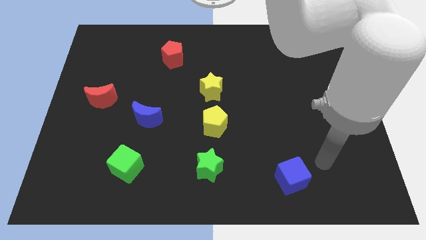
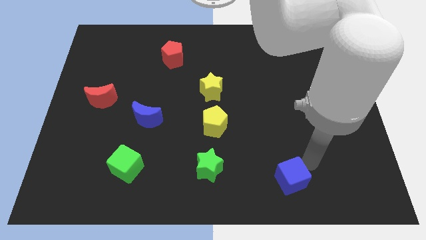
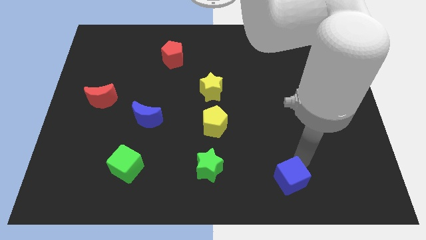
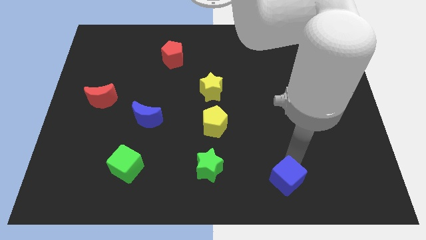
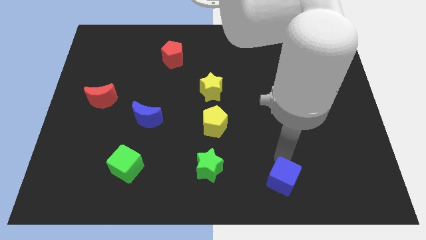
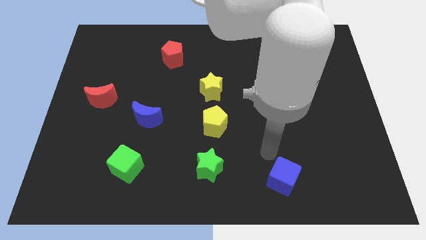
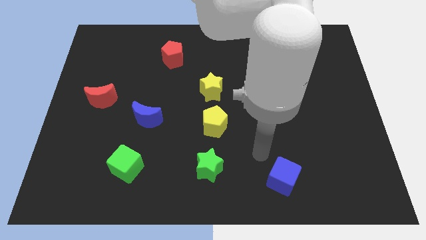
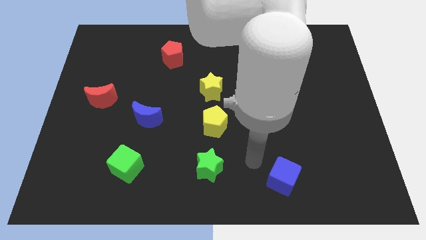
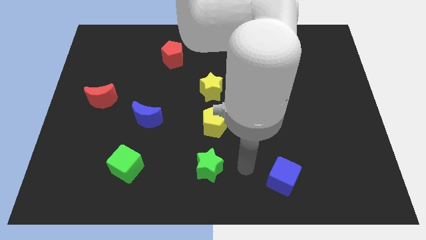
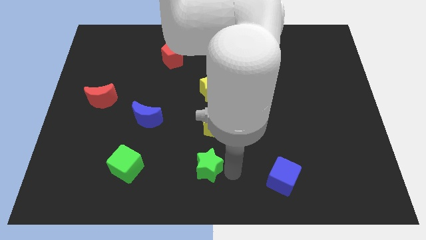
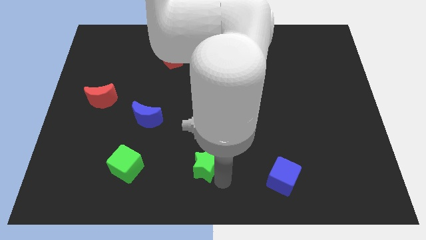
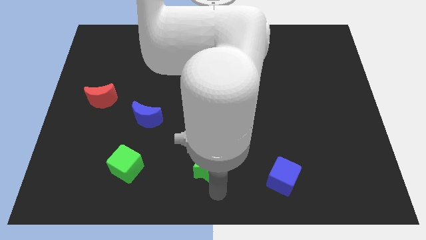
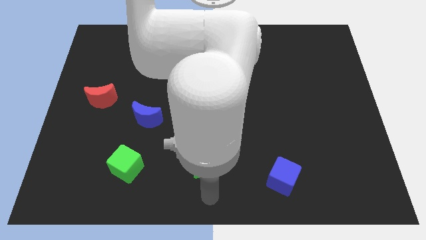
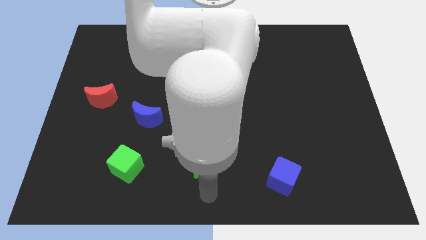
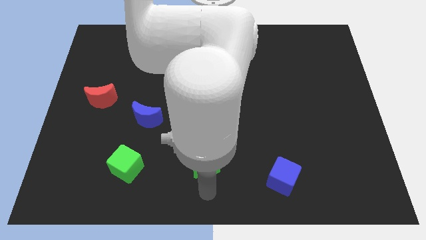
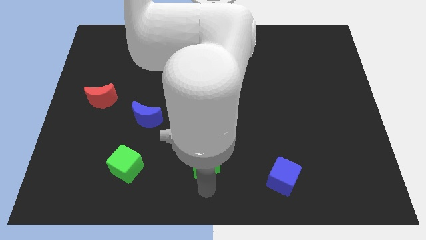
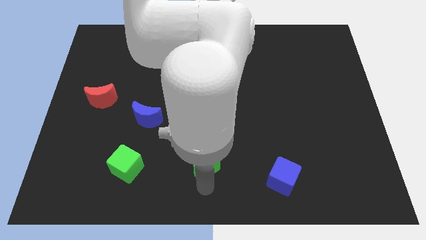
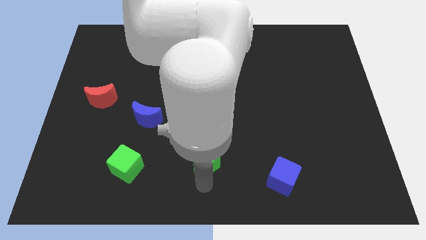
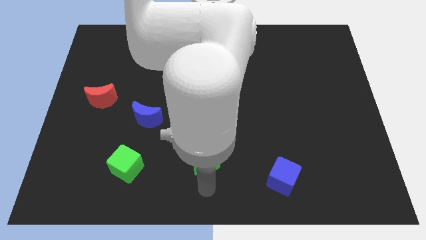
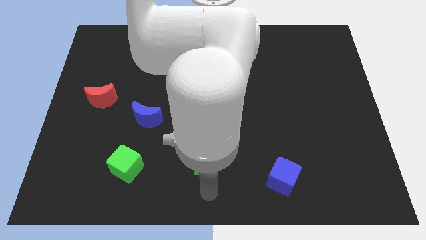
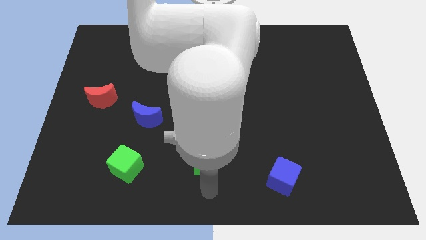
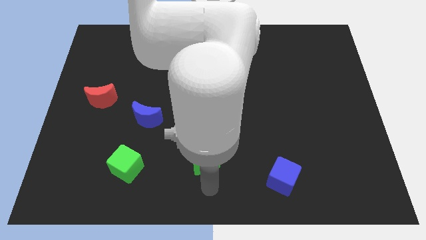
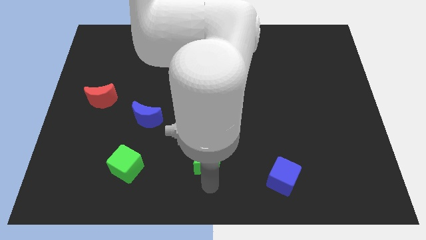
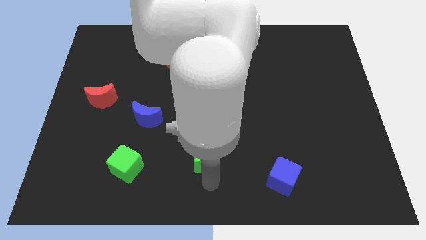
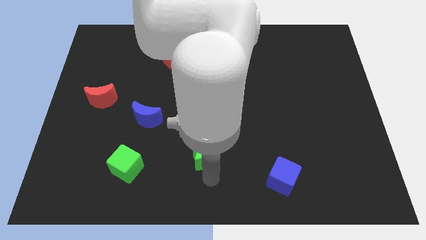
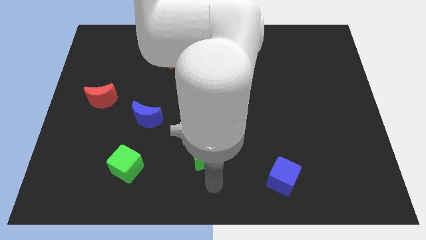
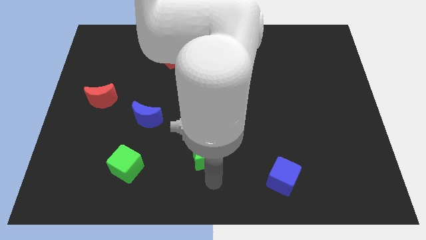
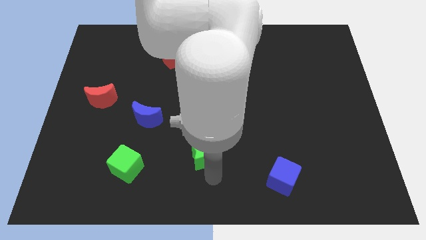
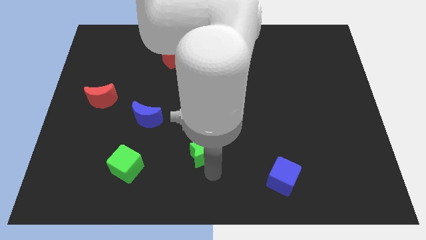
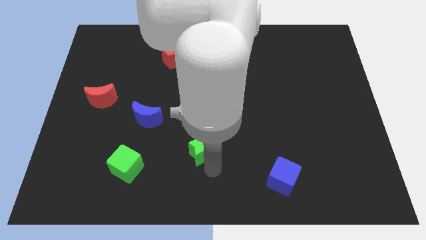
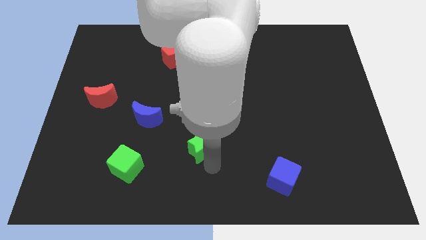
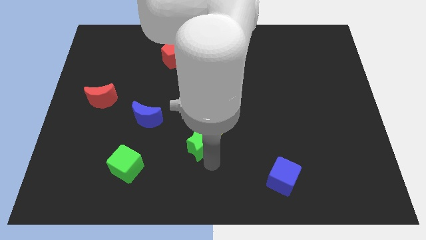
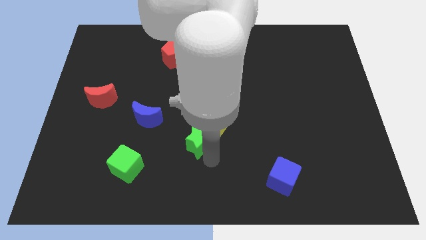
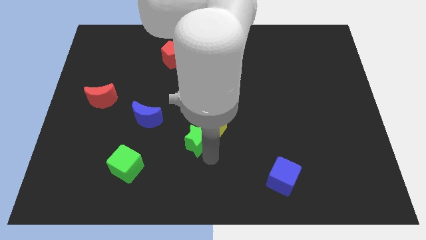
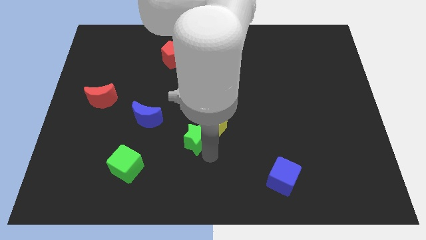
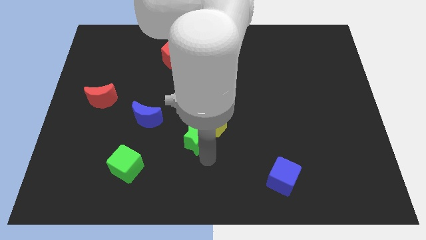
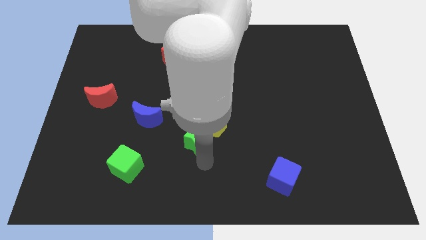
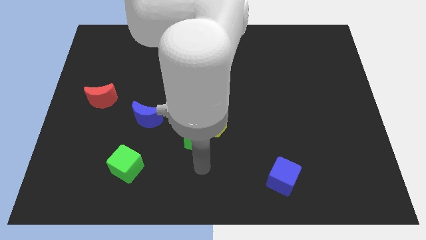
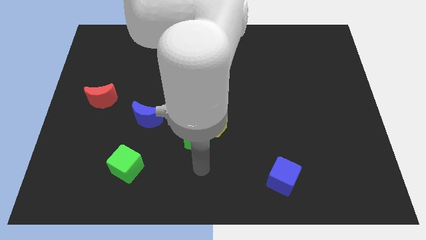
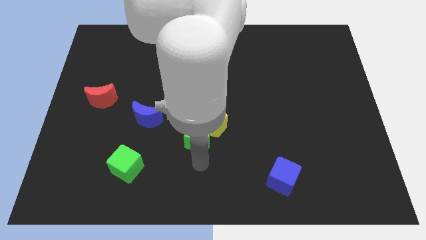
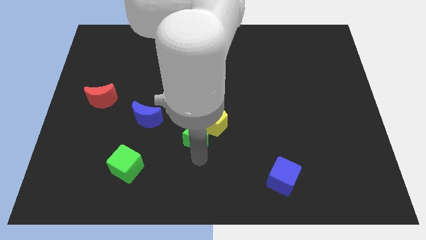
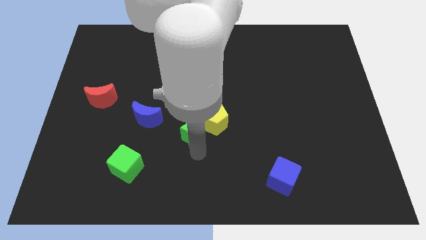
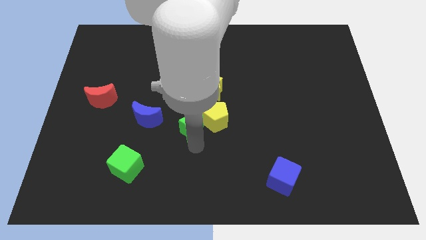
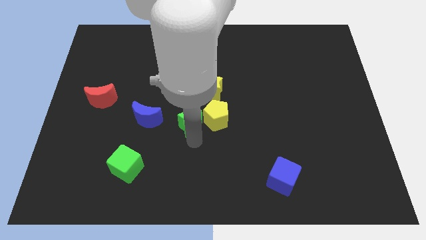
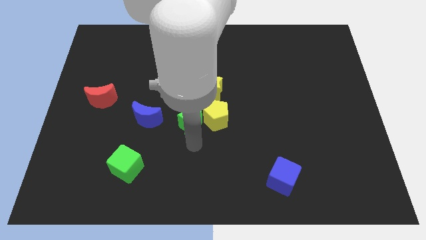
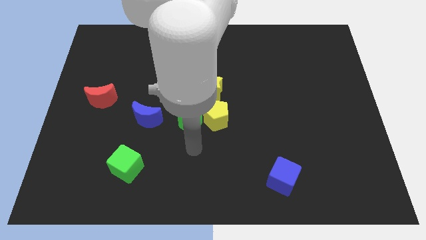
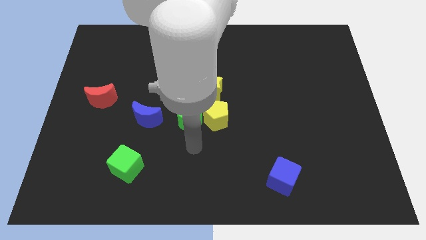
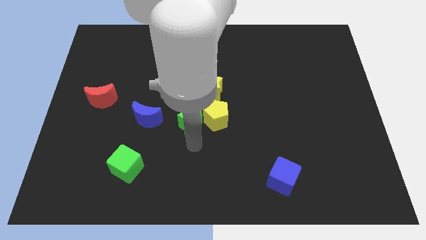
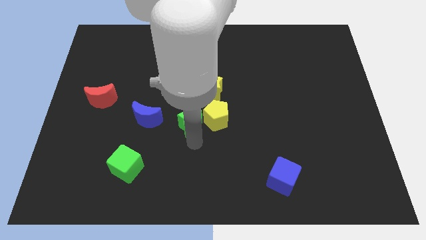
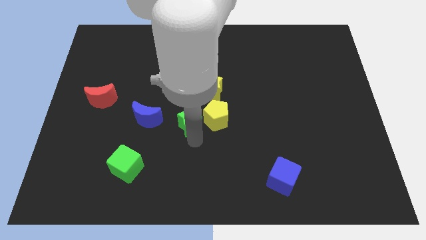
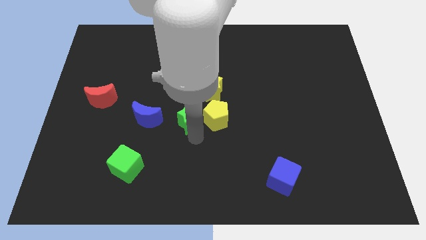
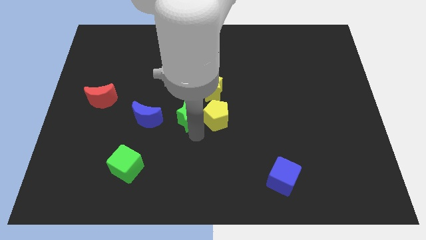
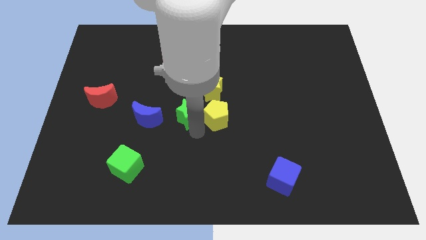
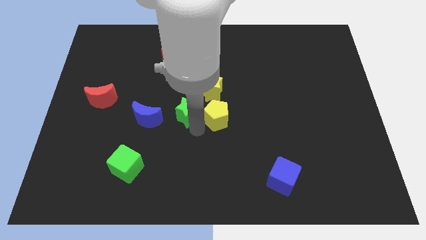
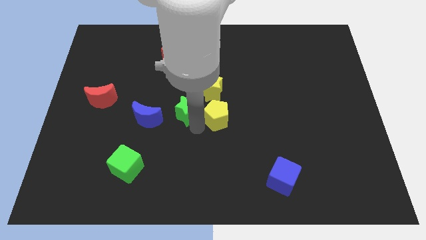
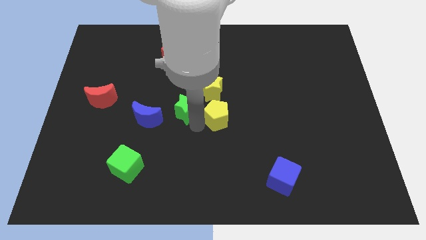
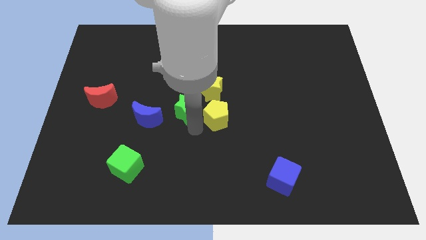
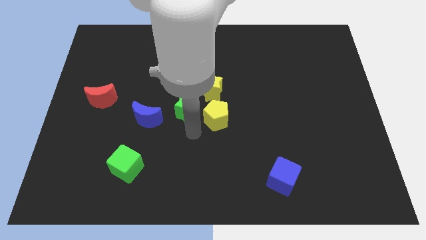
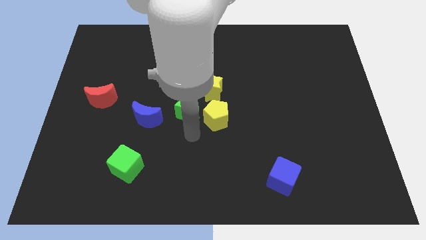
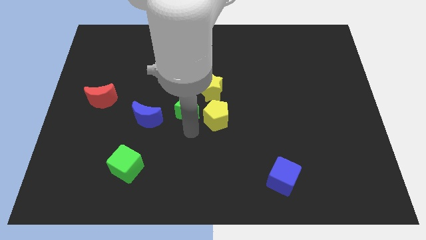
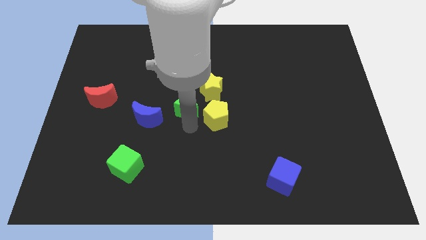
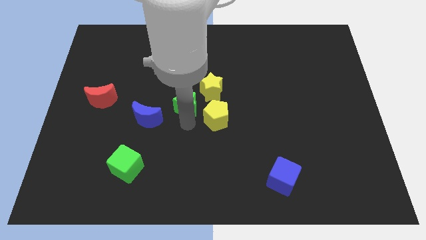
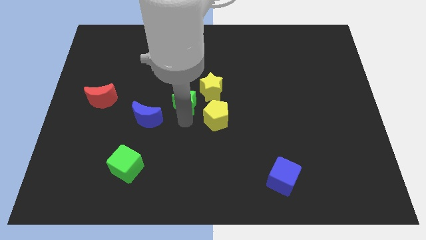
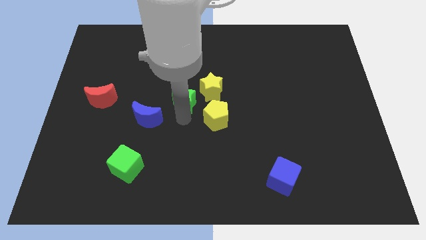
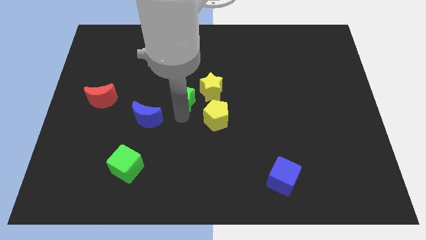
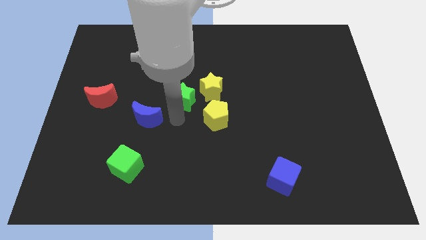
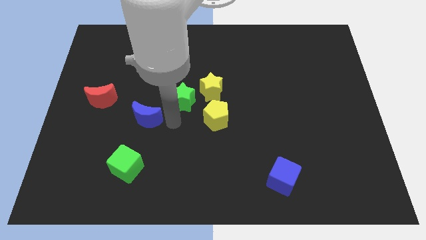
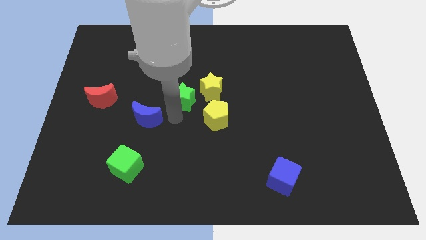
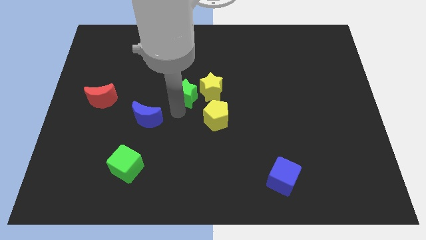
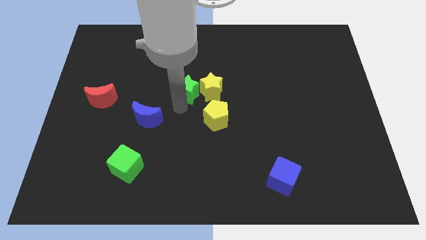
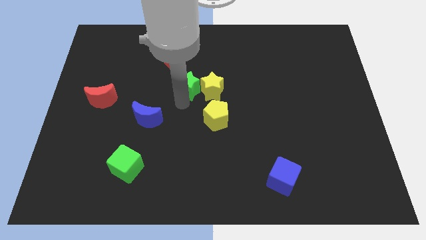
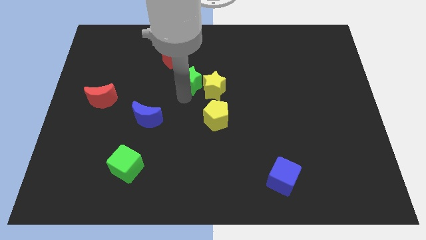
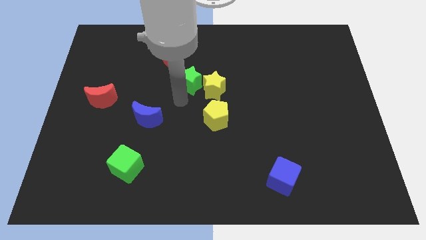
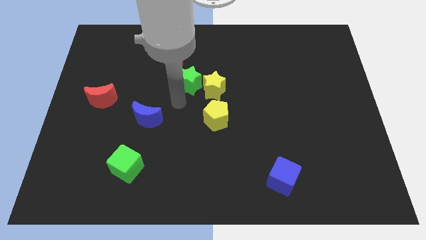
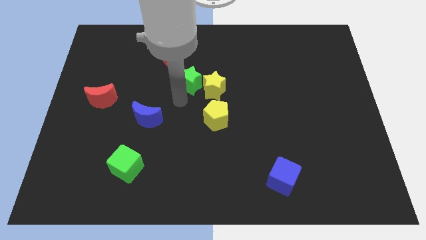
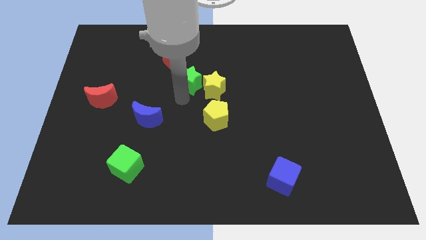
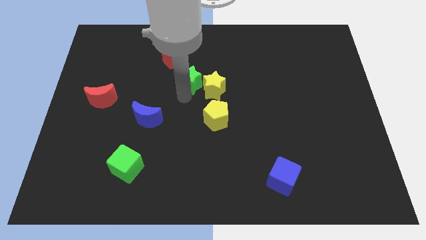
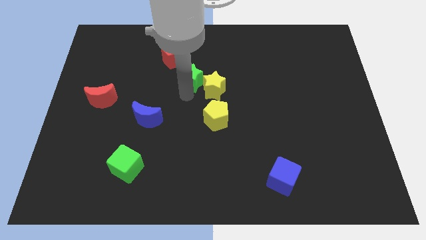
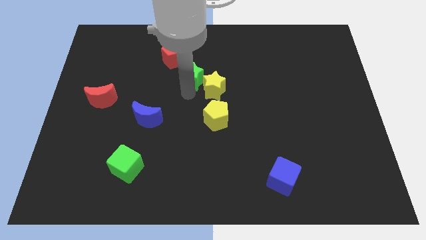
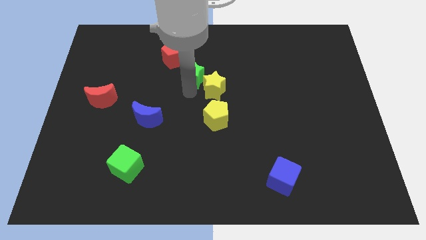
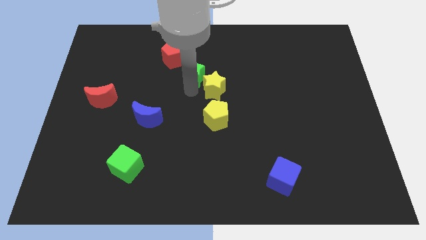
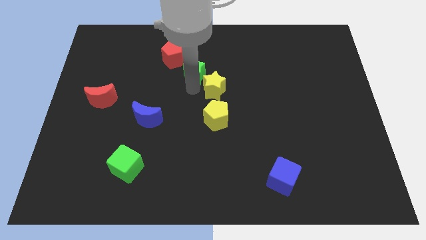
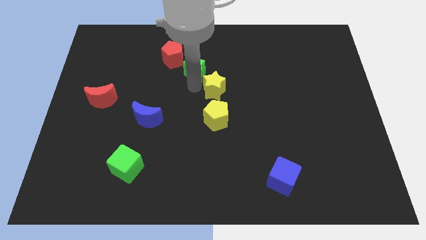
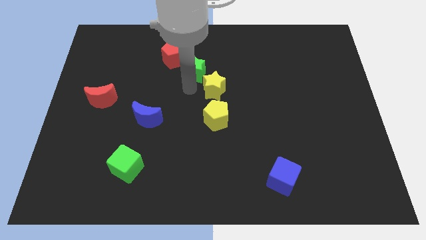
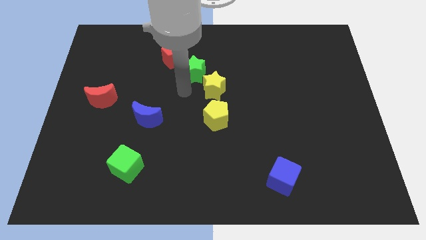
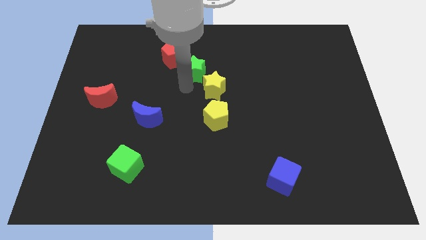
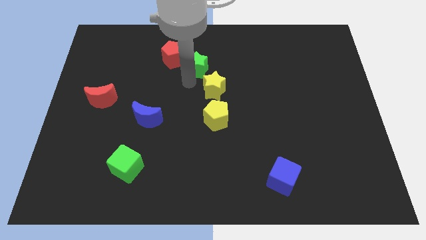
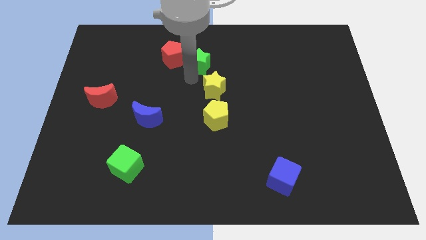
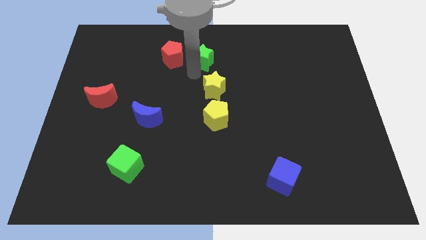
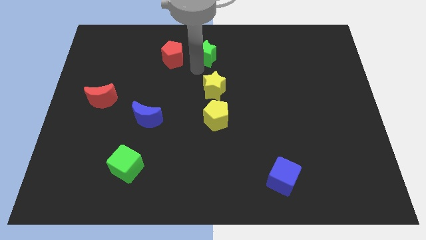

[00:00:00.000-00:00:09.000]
push the green star to the towards your base
